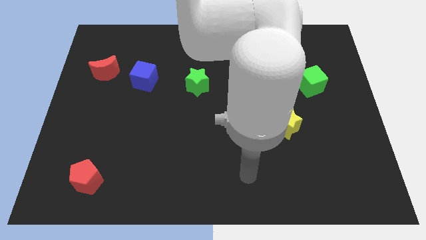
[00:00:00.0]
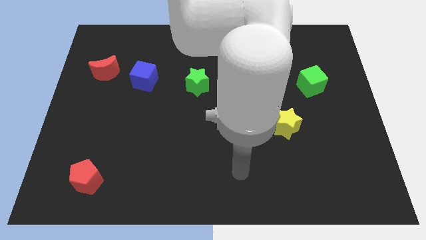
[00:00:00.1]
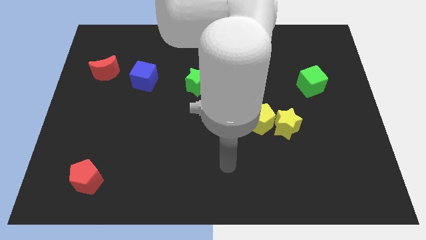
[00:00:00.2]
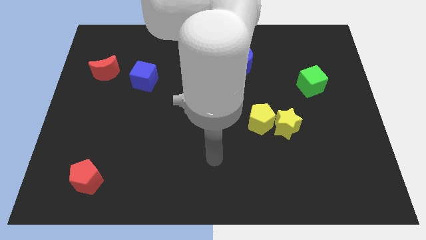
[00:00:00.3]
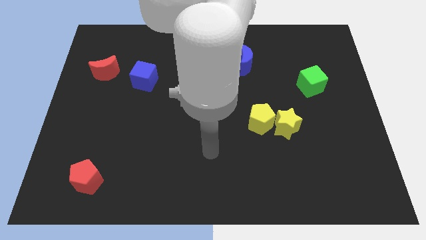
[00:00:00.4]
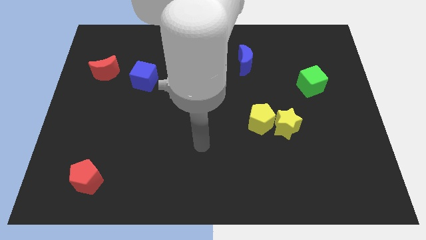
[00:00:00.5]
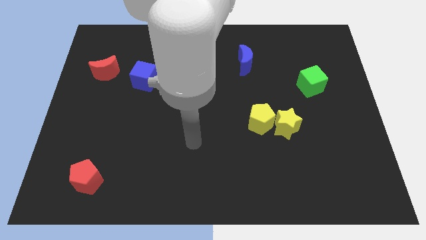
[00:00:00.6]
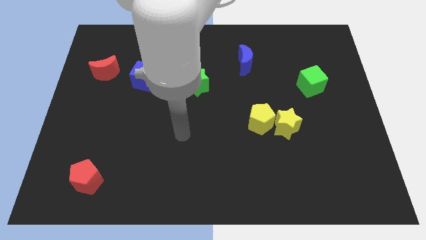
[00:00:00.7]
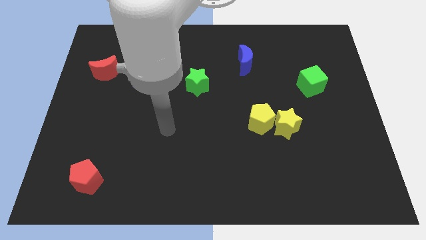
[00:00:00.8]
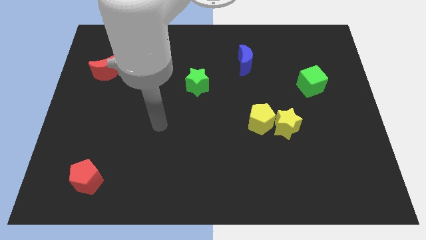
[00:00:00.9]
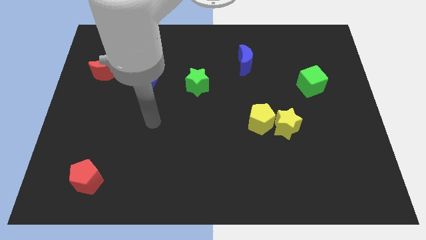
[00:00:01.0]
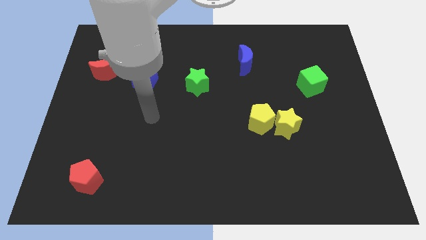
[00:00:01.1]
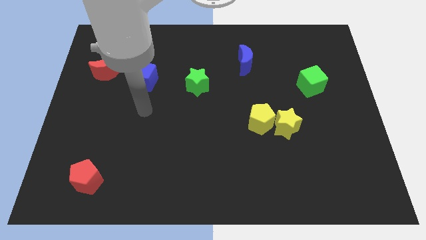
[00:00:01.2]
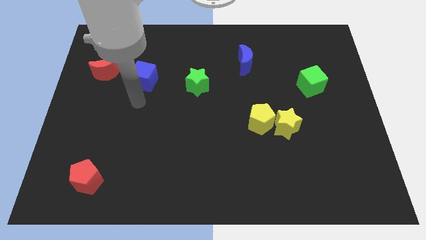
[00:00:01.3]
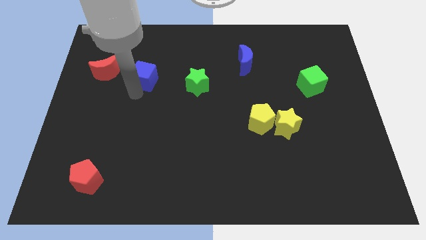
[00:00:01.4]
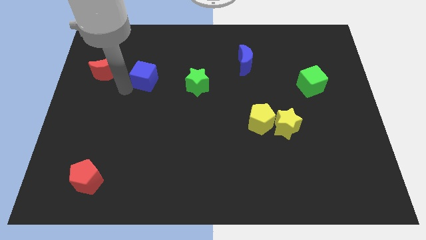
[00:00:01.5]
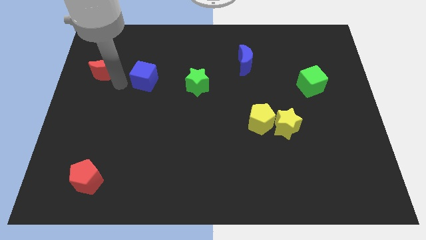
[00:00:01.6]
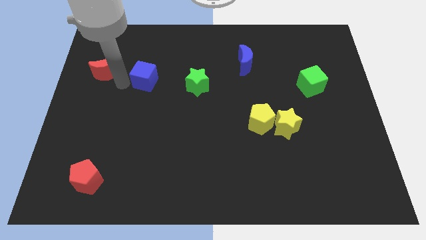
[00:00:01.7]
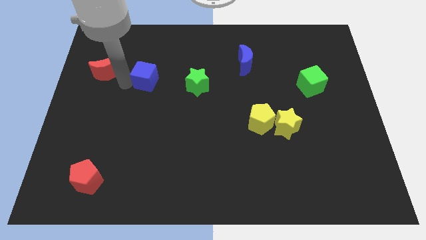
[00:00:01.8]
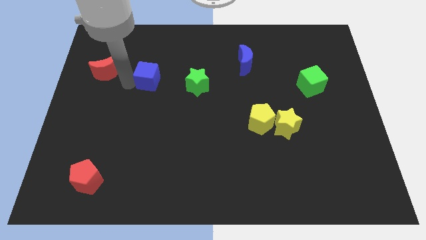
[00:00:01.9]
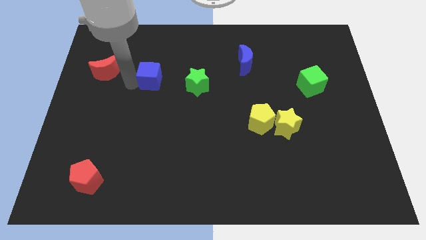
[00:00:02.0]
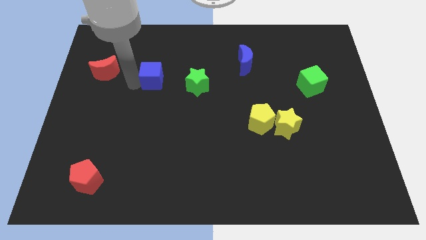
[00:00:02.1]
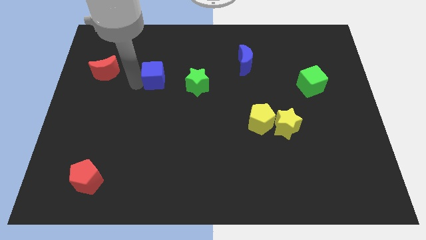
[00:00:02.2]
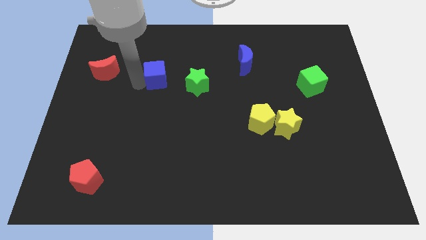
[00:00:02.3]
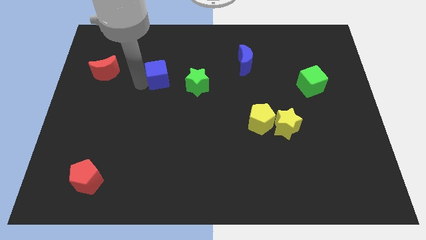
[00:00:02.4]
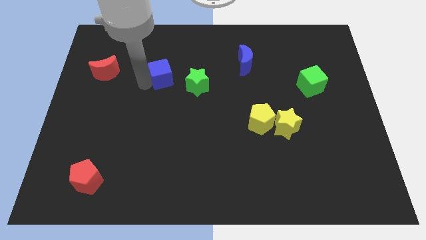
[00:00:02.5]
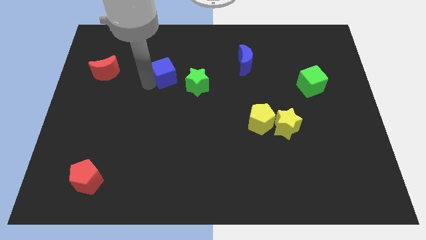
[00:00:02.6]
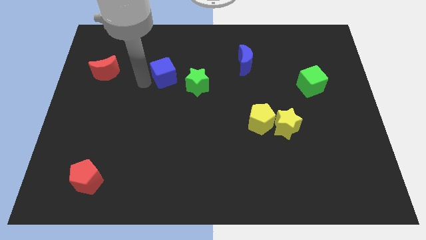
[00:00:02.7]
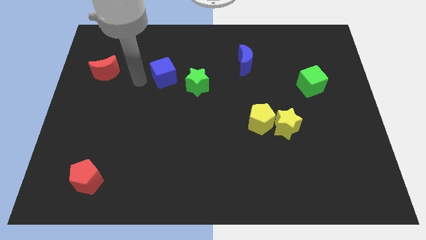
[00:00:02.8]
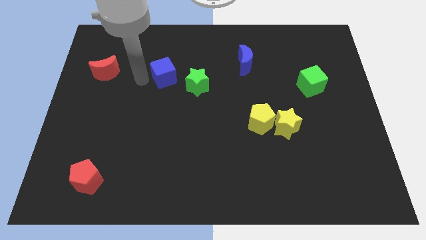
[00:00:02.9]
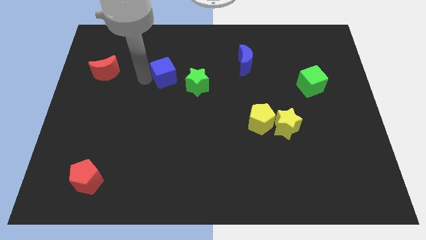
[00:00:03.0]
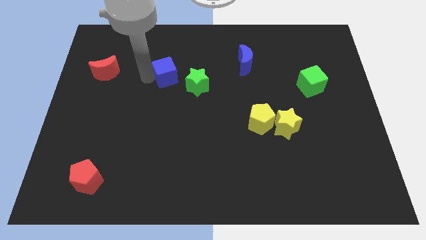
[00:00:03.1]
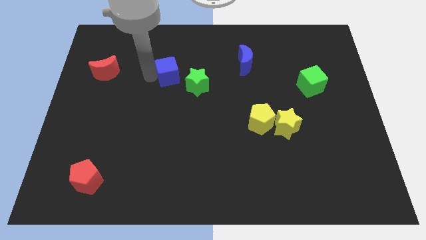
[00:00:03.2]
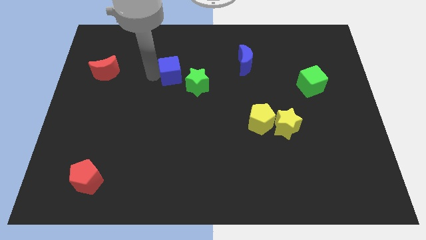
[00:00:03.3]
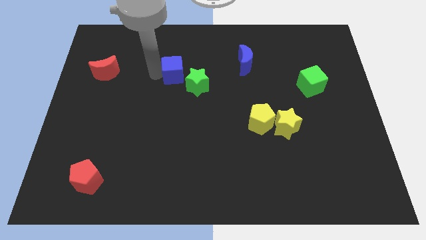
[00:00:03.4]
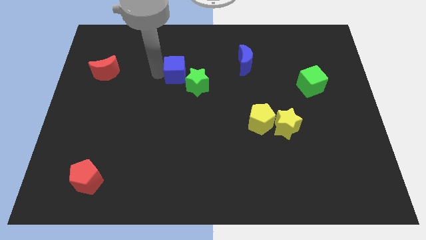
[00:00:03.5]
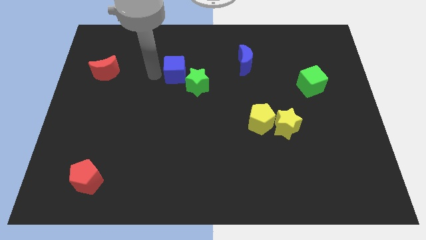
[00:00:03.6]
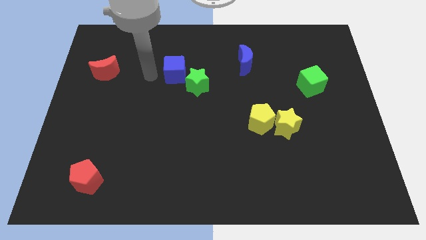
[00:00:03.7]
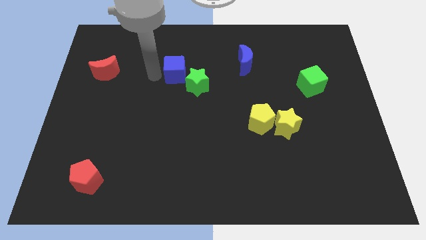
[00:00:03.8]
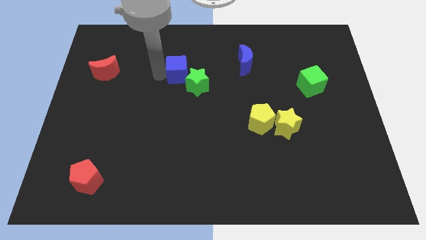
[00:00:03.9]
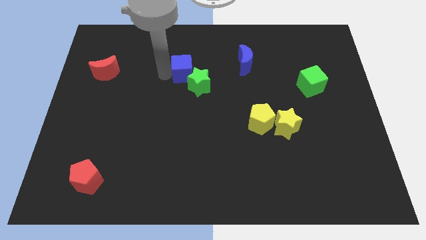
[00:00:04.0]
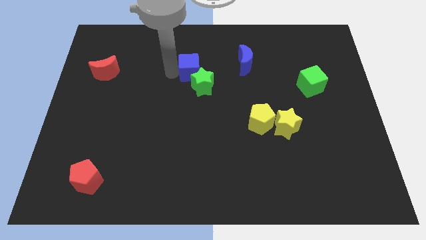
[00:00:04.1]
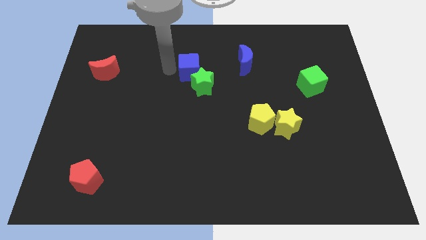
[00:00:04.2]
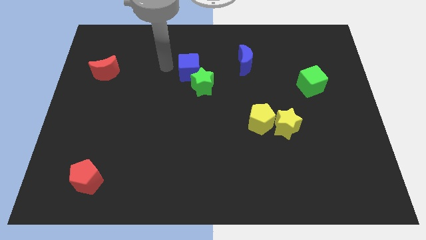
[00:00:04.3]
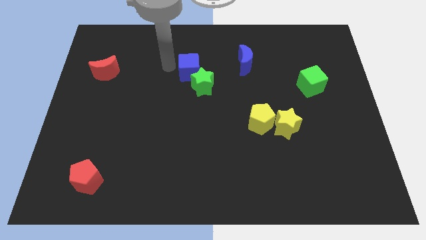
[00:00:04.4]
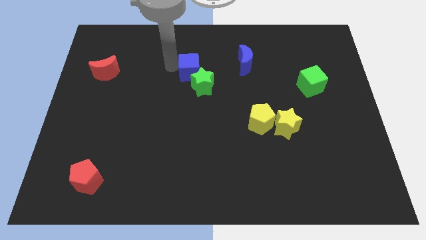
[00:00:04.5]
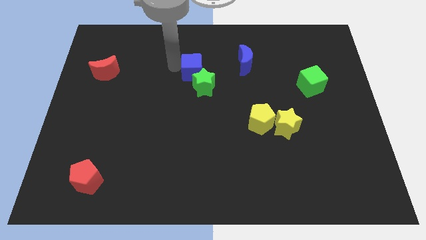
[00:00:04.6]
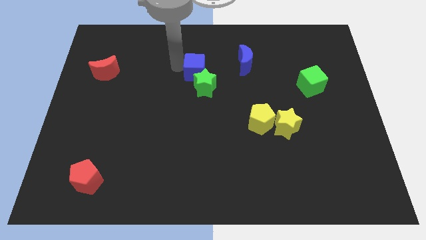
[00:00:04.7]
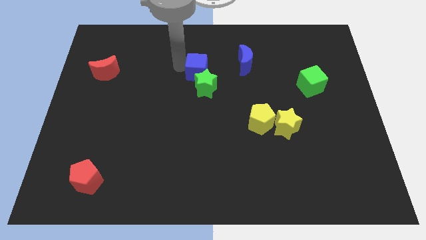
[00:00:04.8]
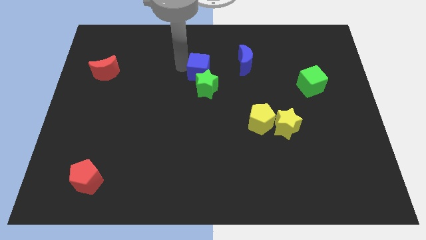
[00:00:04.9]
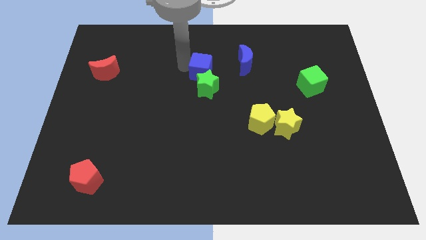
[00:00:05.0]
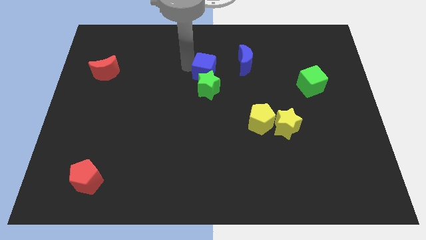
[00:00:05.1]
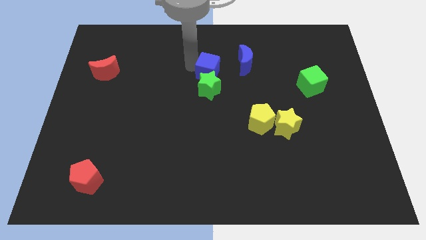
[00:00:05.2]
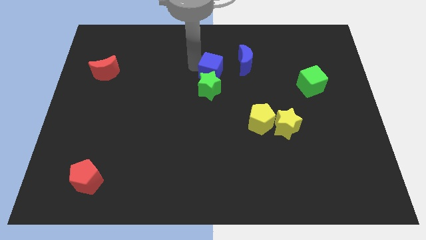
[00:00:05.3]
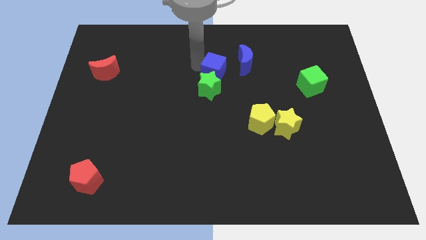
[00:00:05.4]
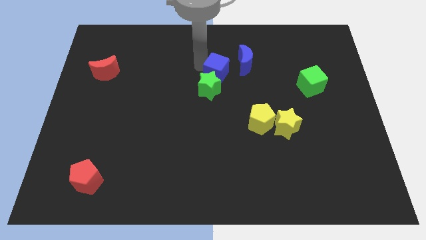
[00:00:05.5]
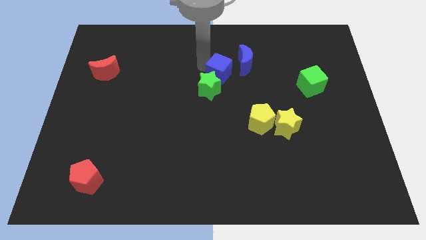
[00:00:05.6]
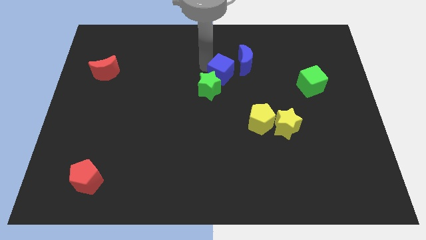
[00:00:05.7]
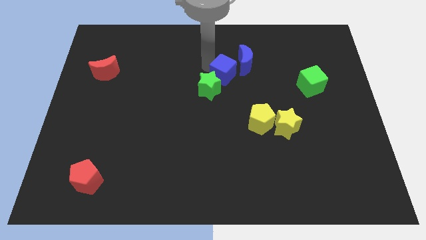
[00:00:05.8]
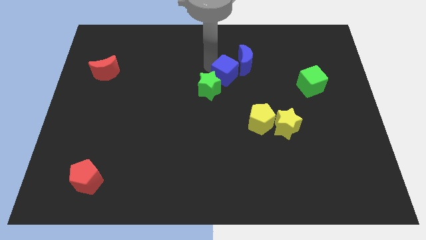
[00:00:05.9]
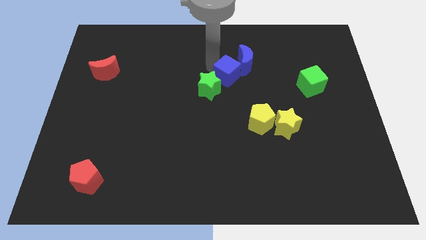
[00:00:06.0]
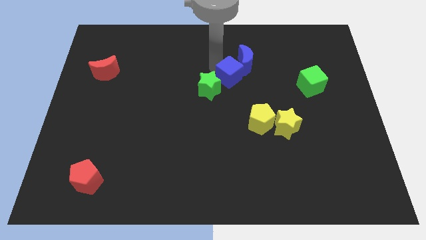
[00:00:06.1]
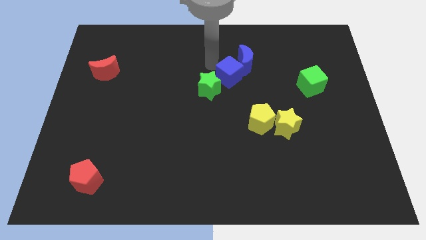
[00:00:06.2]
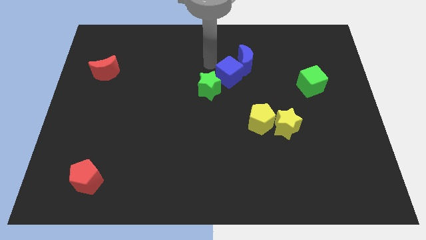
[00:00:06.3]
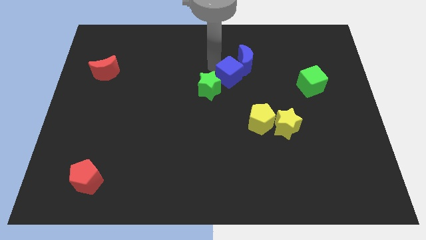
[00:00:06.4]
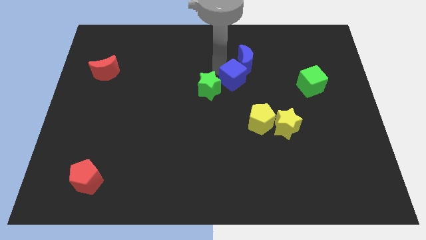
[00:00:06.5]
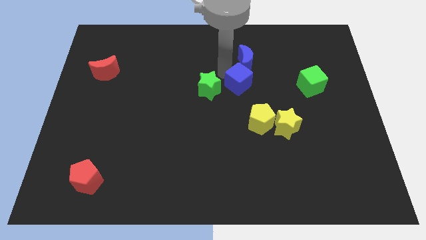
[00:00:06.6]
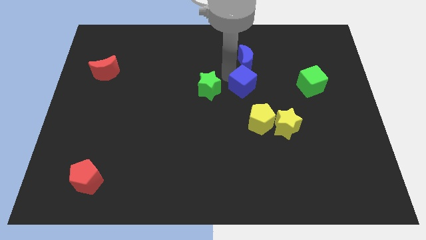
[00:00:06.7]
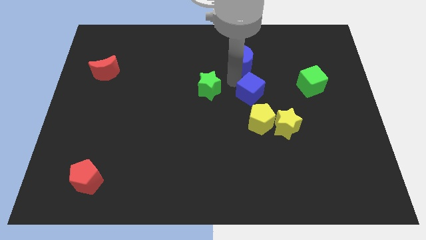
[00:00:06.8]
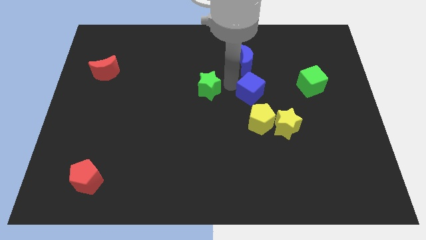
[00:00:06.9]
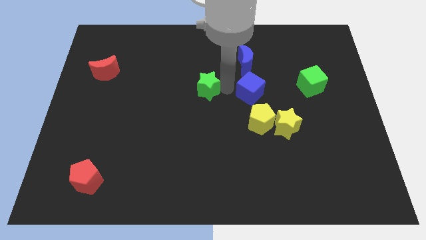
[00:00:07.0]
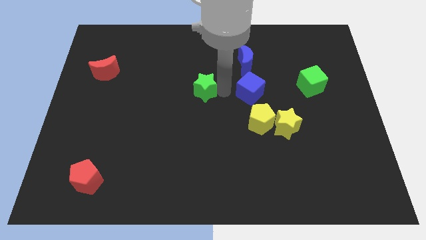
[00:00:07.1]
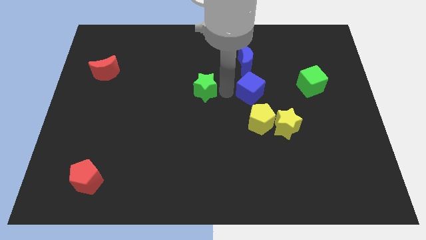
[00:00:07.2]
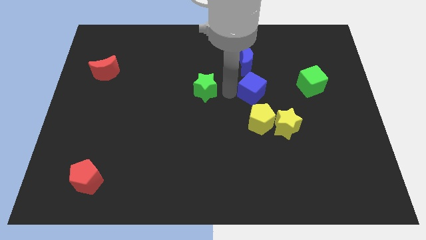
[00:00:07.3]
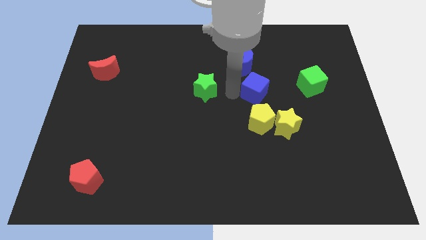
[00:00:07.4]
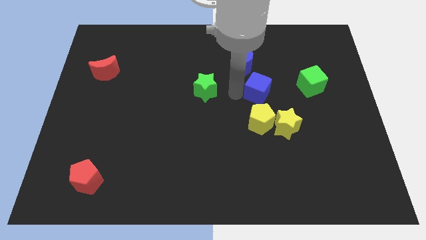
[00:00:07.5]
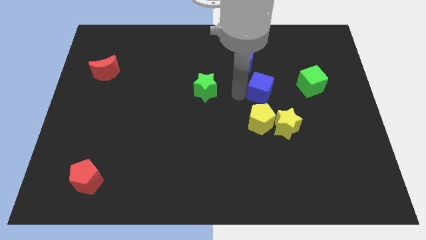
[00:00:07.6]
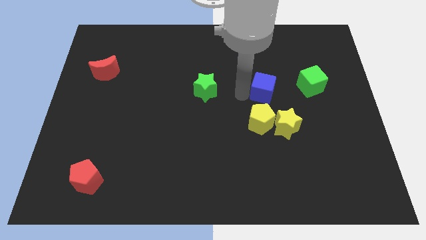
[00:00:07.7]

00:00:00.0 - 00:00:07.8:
push the blue cube to the top side of the yellow star
